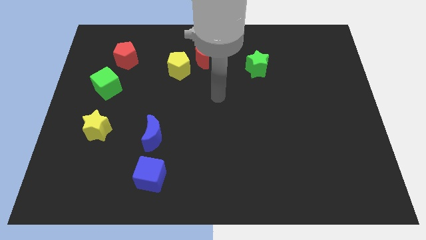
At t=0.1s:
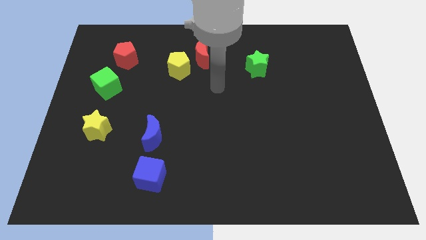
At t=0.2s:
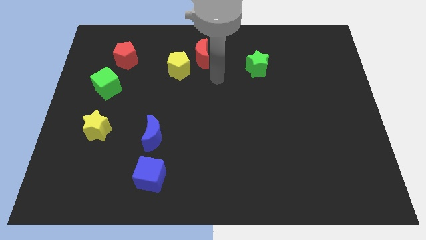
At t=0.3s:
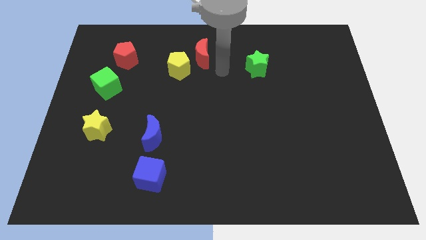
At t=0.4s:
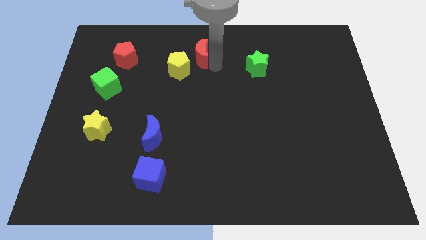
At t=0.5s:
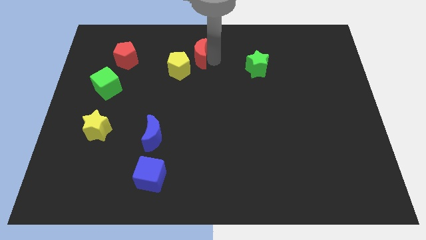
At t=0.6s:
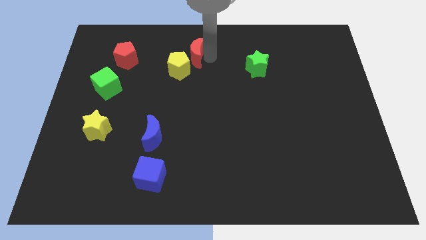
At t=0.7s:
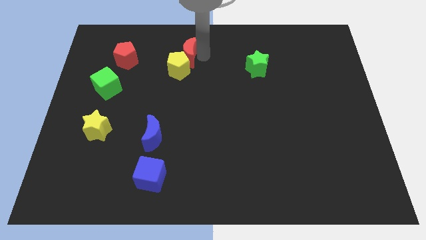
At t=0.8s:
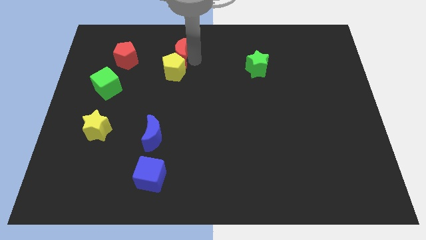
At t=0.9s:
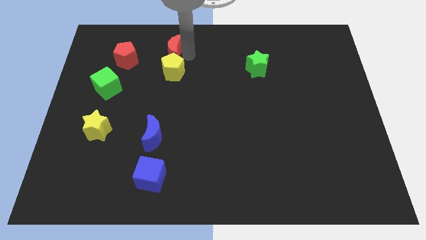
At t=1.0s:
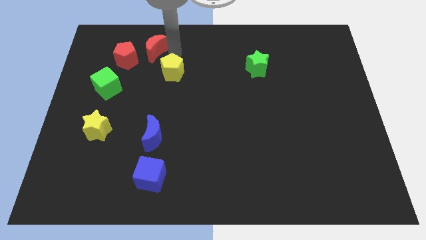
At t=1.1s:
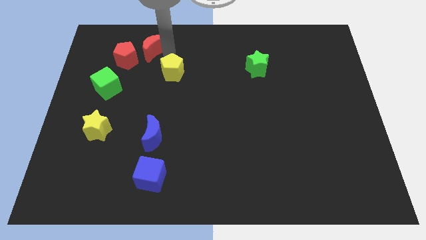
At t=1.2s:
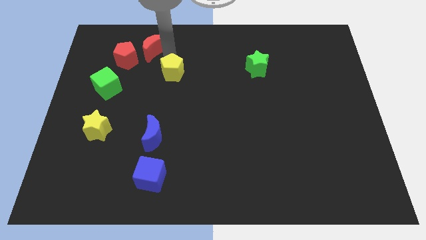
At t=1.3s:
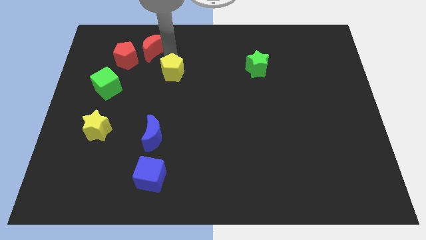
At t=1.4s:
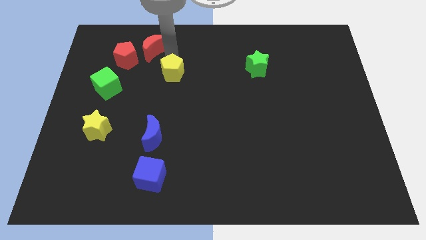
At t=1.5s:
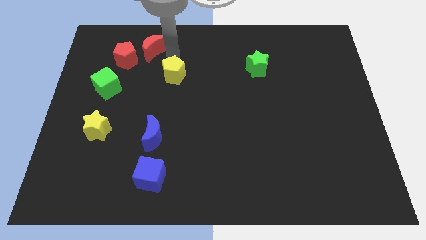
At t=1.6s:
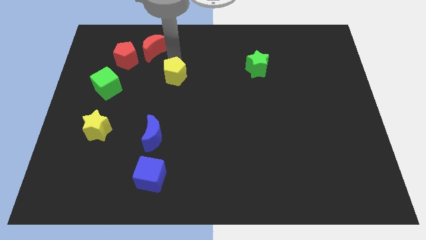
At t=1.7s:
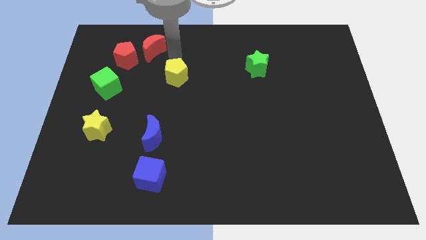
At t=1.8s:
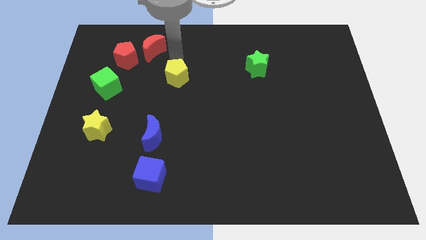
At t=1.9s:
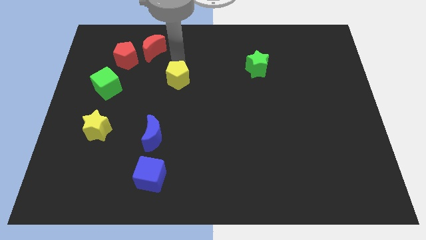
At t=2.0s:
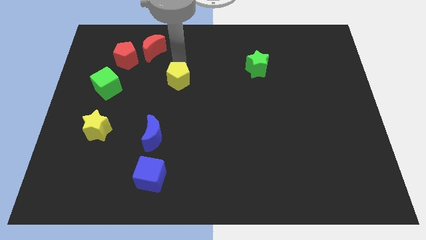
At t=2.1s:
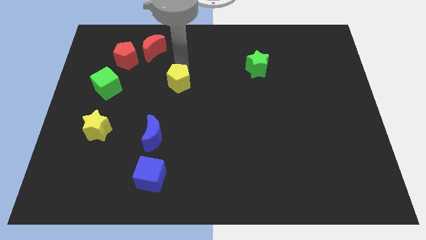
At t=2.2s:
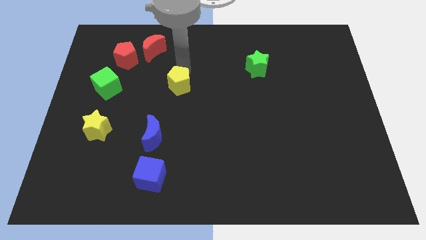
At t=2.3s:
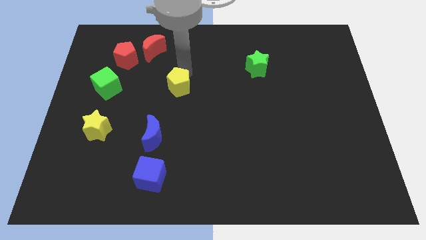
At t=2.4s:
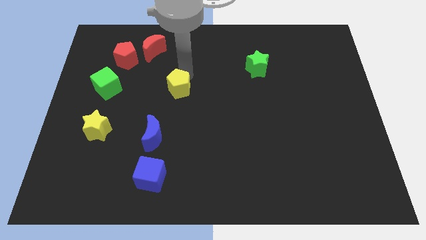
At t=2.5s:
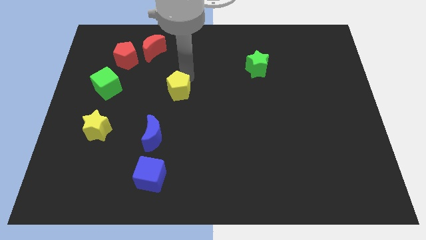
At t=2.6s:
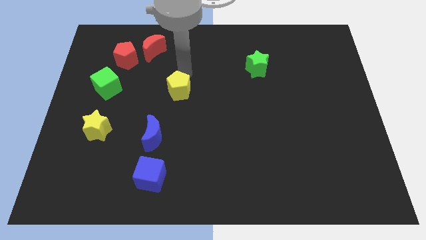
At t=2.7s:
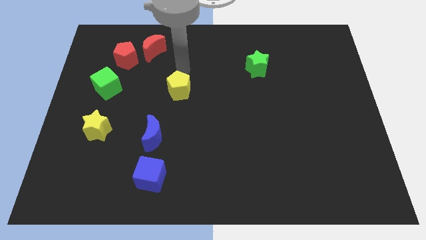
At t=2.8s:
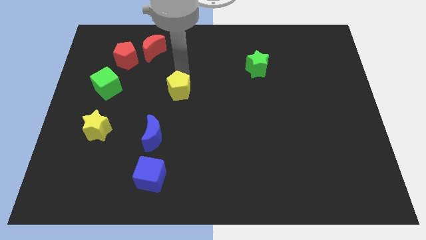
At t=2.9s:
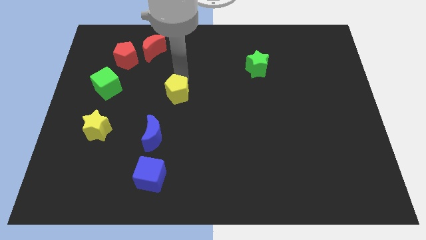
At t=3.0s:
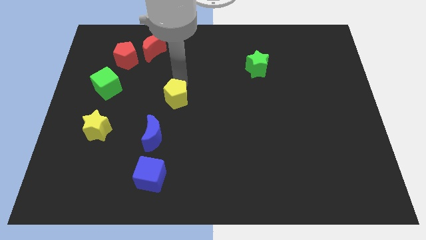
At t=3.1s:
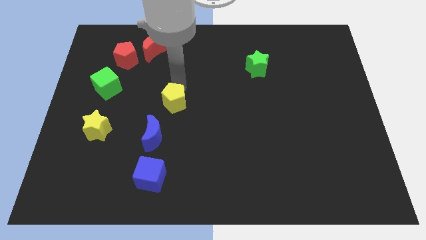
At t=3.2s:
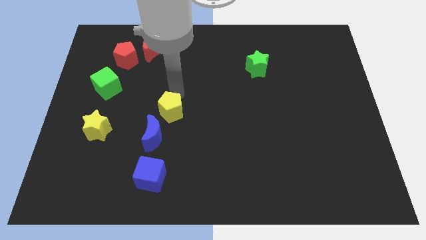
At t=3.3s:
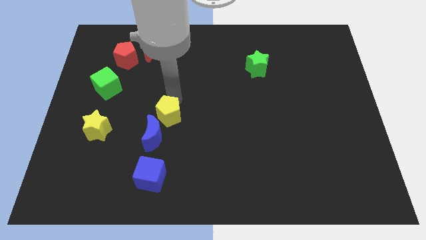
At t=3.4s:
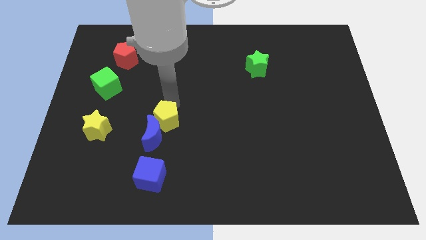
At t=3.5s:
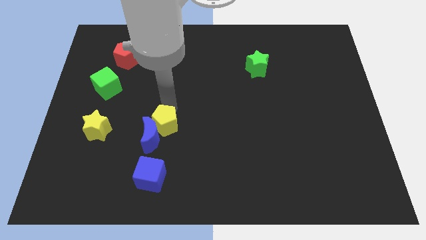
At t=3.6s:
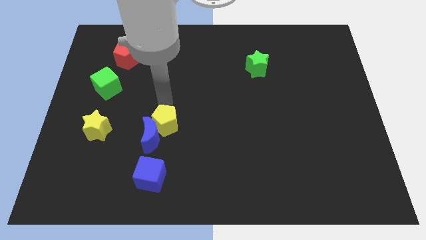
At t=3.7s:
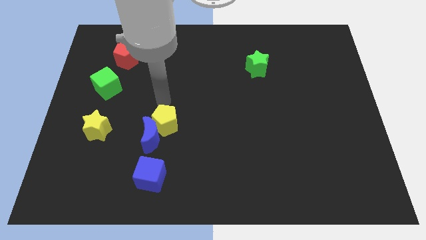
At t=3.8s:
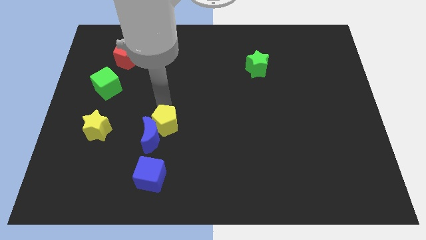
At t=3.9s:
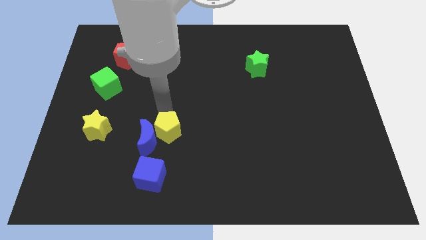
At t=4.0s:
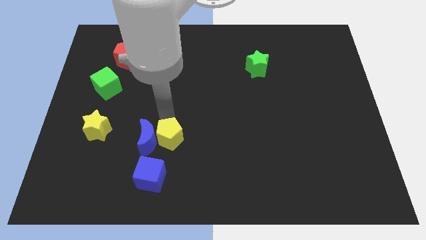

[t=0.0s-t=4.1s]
slide the yellow pentagon down

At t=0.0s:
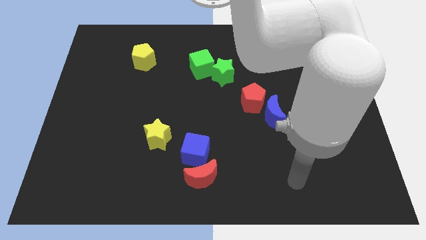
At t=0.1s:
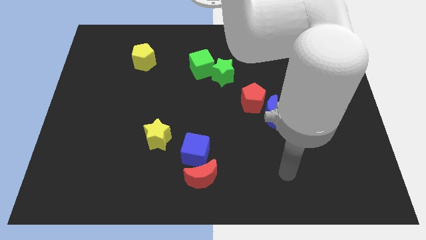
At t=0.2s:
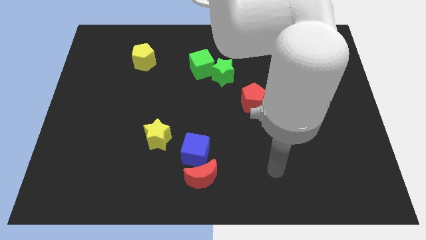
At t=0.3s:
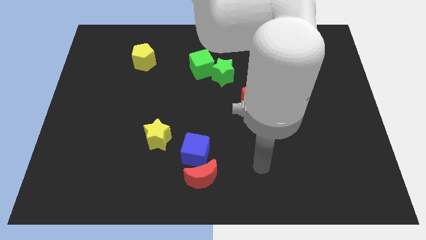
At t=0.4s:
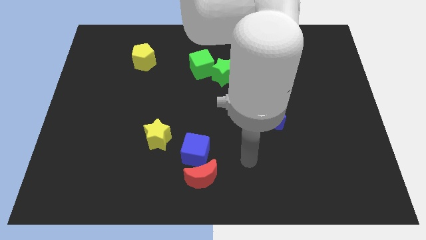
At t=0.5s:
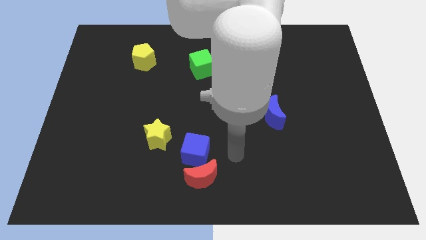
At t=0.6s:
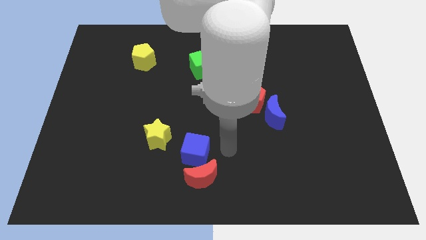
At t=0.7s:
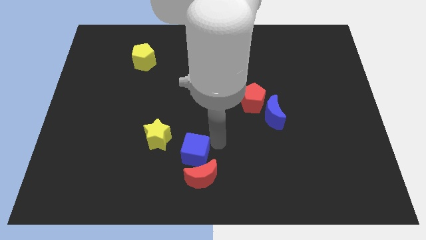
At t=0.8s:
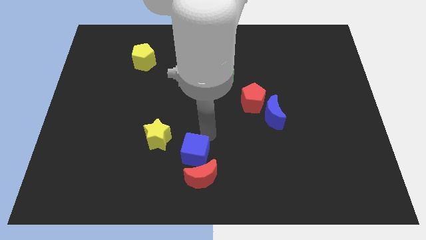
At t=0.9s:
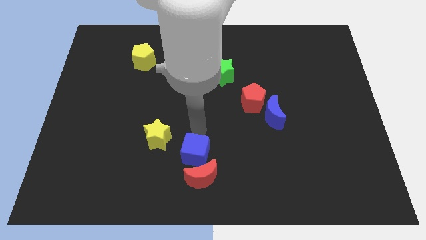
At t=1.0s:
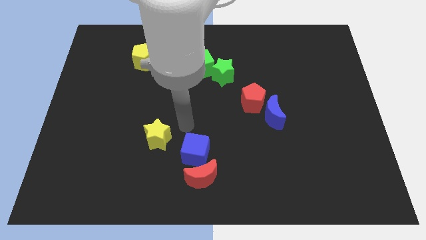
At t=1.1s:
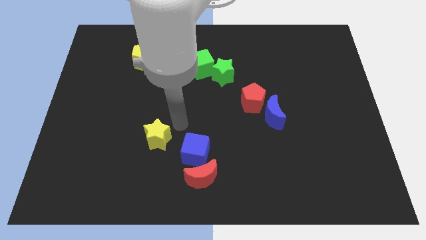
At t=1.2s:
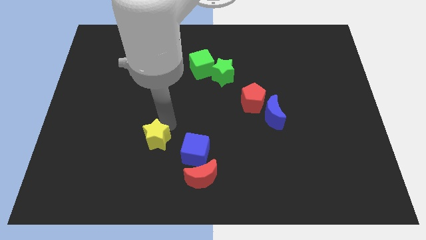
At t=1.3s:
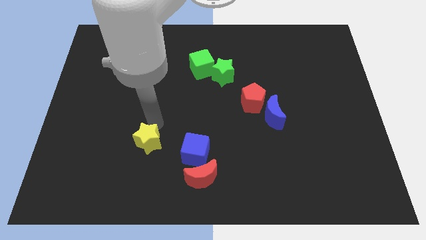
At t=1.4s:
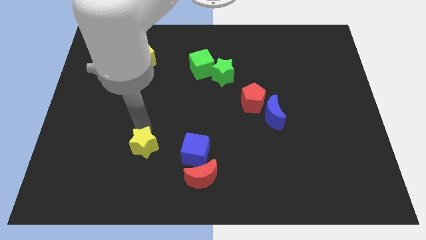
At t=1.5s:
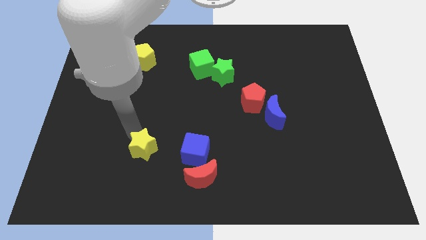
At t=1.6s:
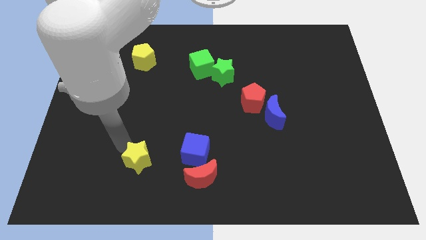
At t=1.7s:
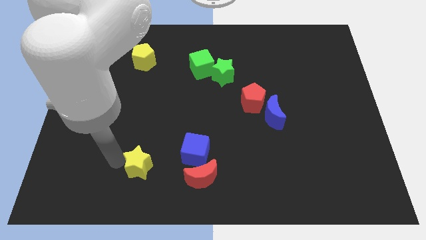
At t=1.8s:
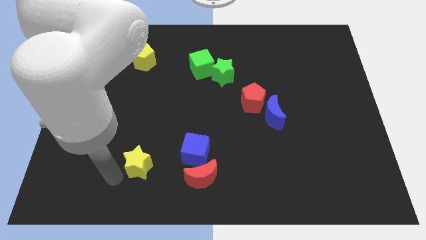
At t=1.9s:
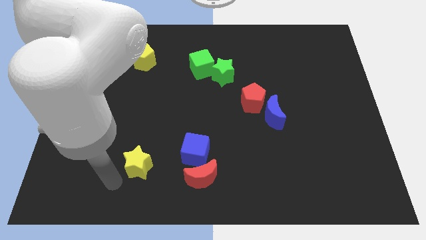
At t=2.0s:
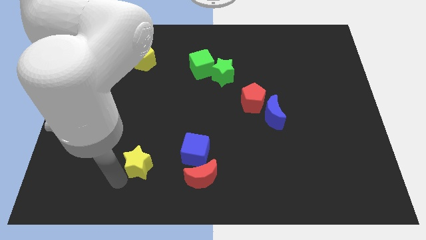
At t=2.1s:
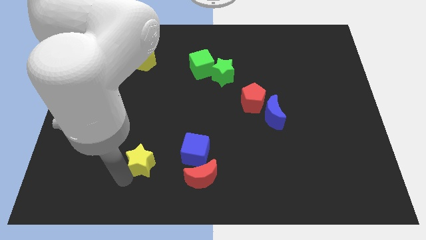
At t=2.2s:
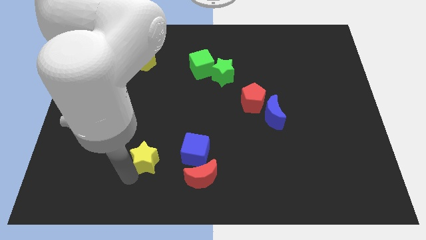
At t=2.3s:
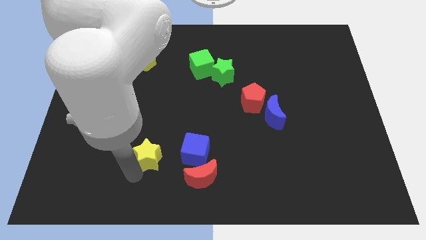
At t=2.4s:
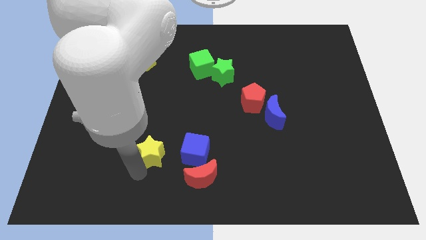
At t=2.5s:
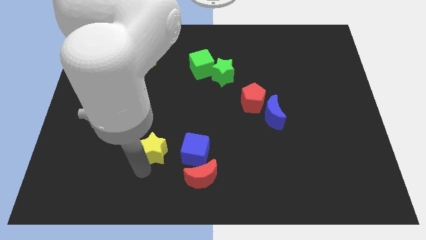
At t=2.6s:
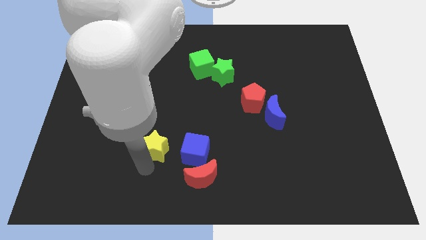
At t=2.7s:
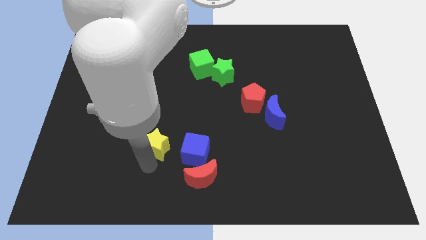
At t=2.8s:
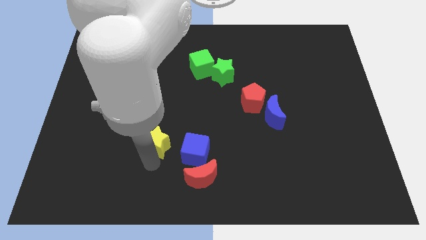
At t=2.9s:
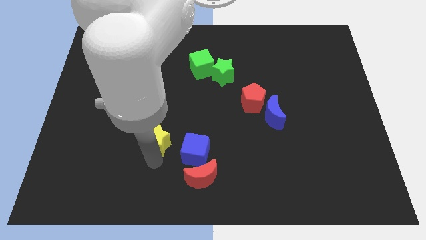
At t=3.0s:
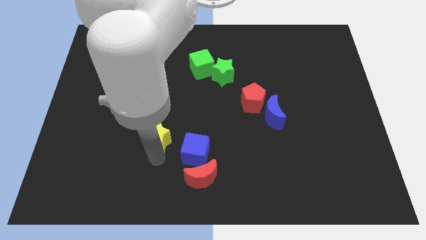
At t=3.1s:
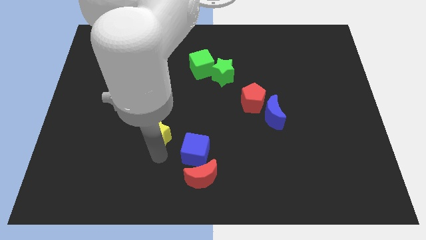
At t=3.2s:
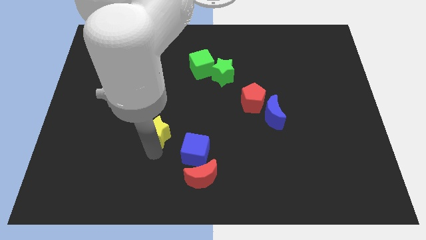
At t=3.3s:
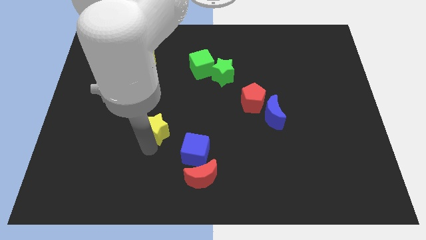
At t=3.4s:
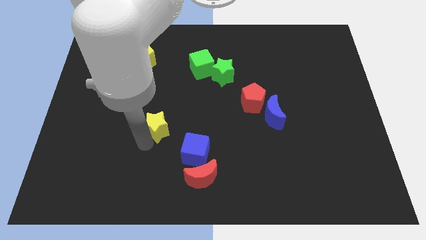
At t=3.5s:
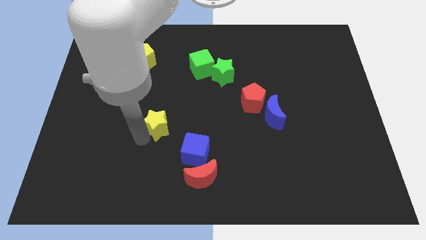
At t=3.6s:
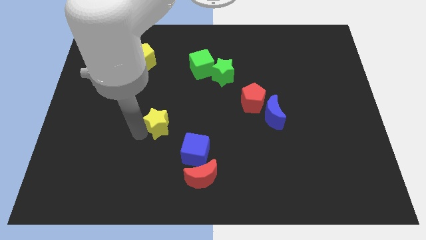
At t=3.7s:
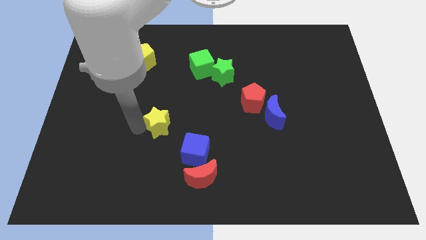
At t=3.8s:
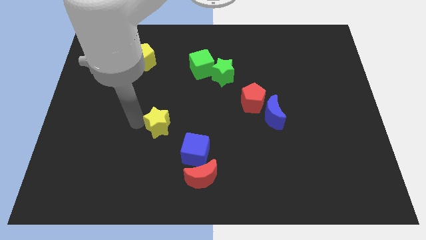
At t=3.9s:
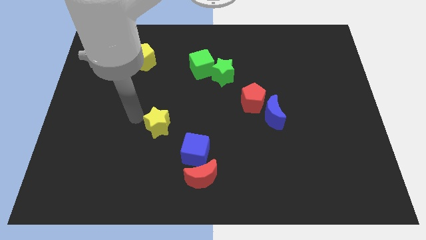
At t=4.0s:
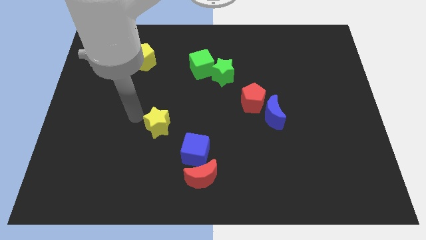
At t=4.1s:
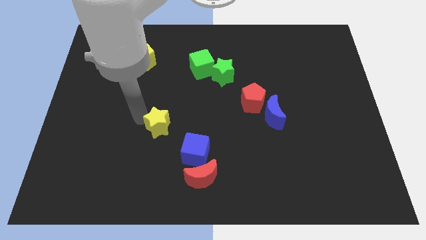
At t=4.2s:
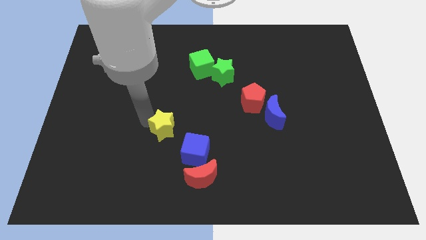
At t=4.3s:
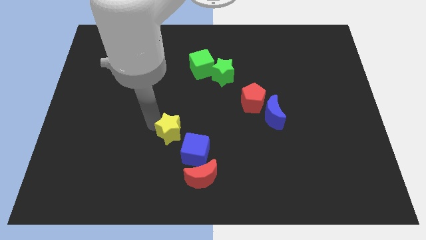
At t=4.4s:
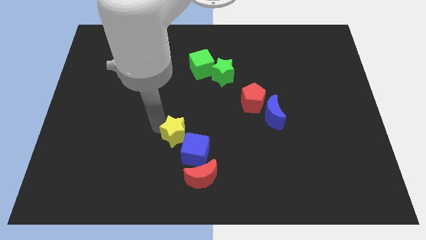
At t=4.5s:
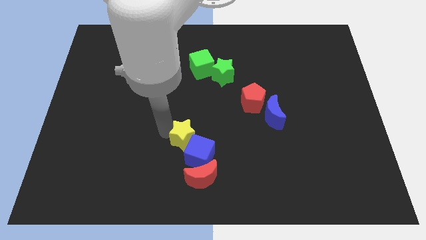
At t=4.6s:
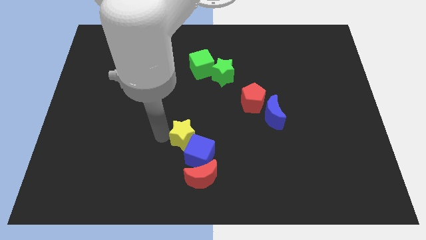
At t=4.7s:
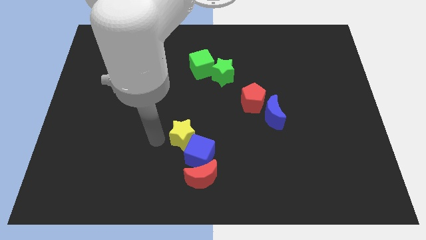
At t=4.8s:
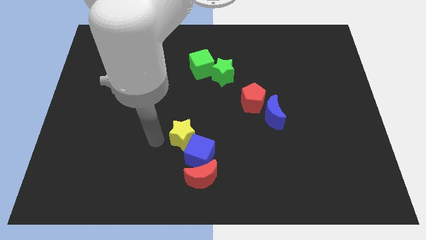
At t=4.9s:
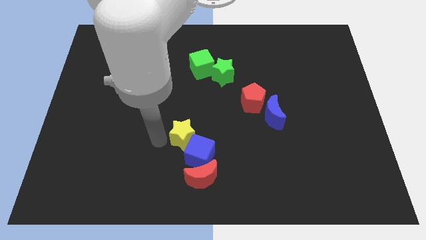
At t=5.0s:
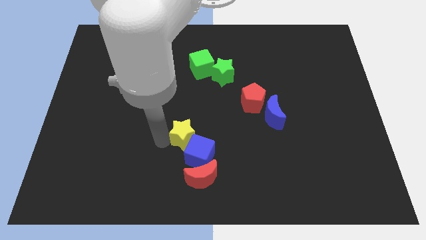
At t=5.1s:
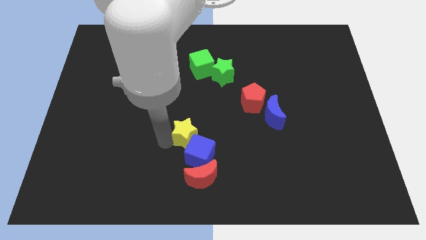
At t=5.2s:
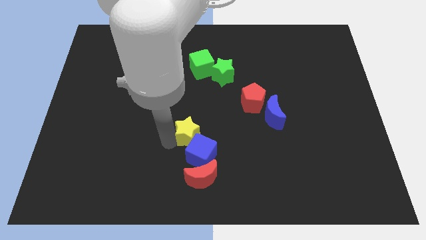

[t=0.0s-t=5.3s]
slide the yellow star a bit right
